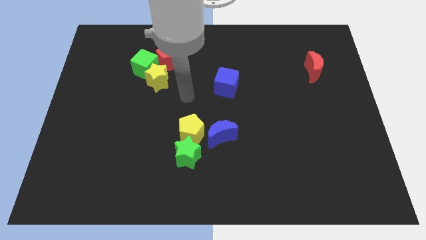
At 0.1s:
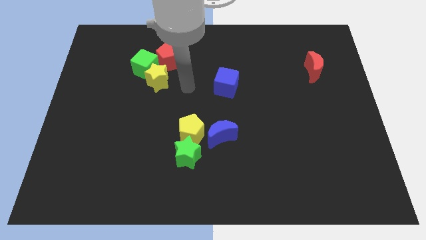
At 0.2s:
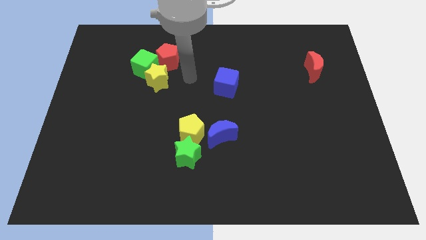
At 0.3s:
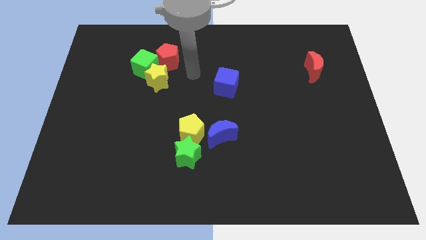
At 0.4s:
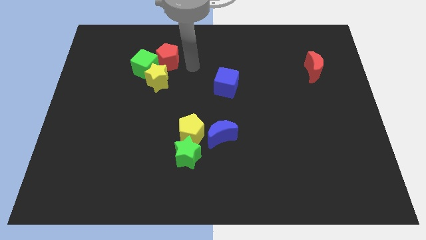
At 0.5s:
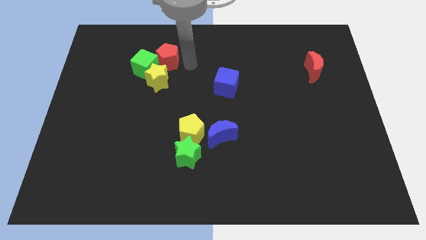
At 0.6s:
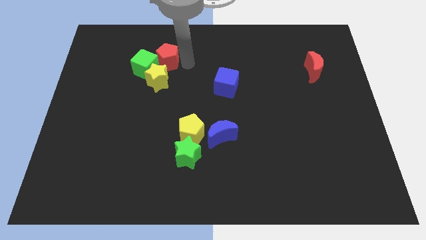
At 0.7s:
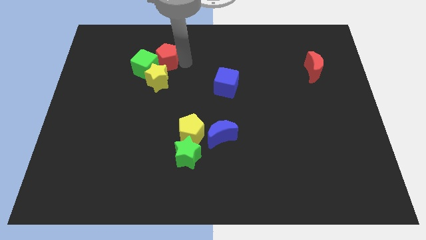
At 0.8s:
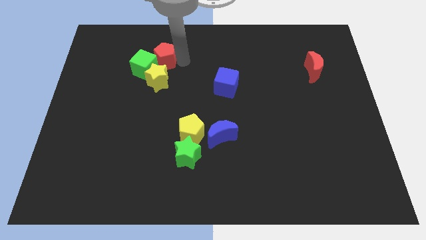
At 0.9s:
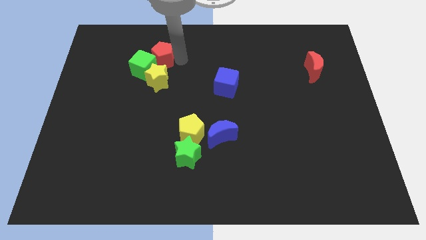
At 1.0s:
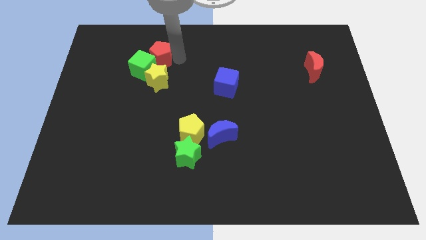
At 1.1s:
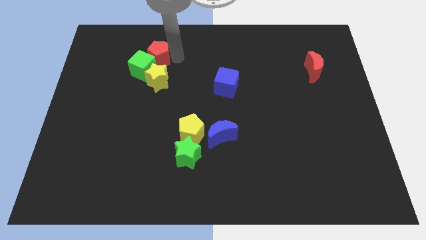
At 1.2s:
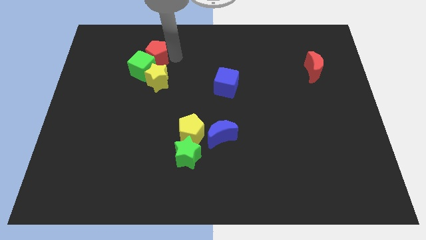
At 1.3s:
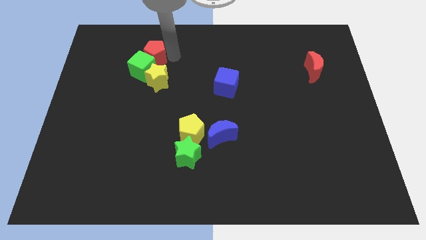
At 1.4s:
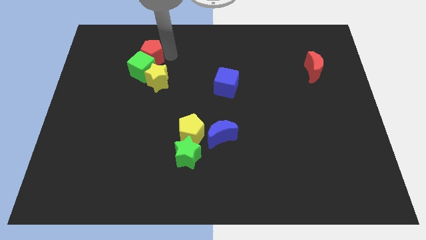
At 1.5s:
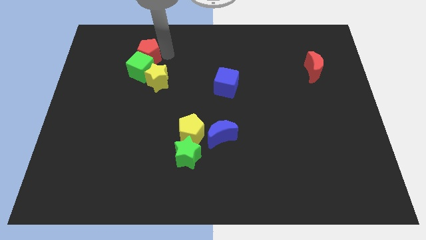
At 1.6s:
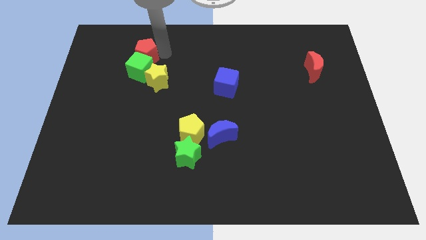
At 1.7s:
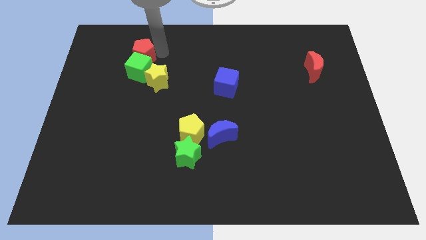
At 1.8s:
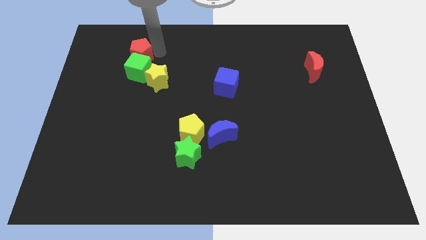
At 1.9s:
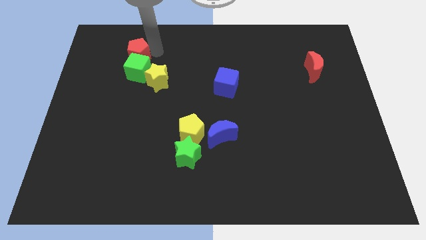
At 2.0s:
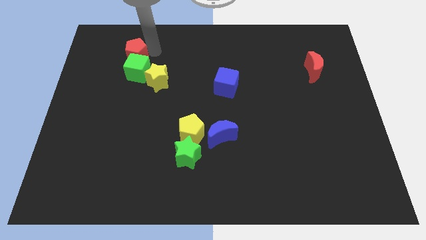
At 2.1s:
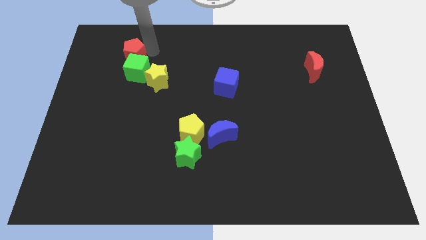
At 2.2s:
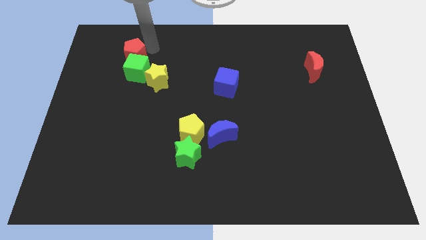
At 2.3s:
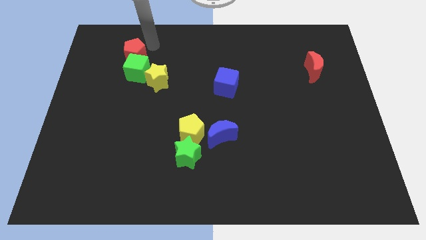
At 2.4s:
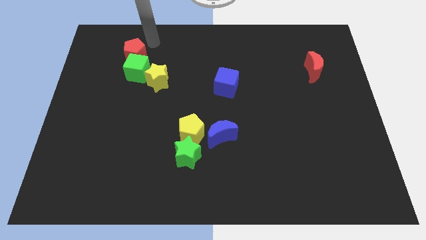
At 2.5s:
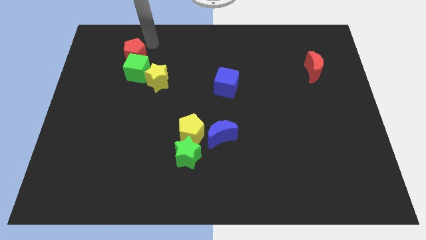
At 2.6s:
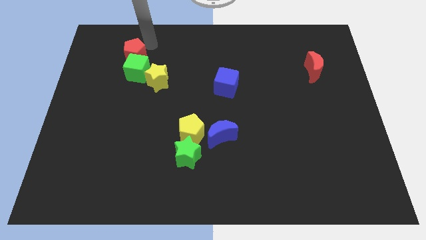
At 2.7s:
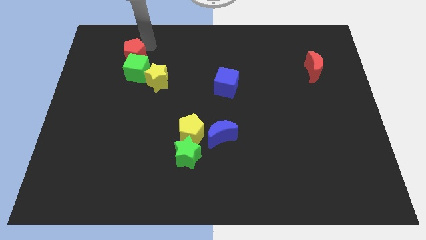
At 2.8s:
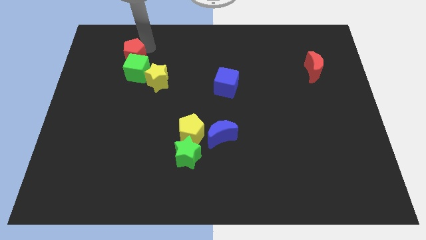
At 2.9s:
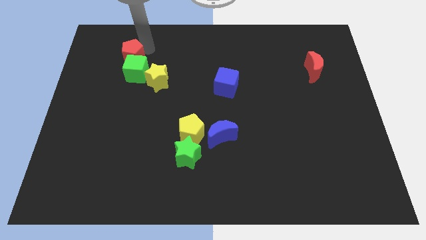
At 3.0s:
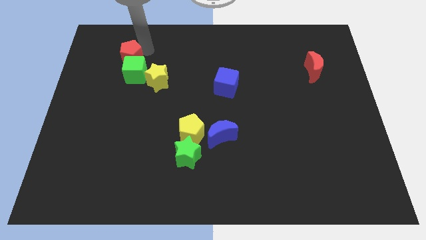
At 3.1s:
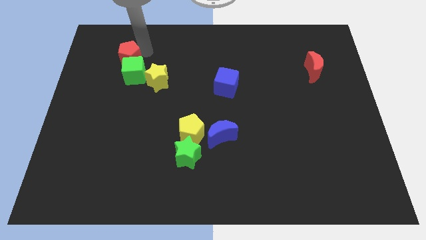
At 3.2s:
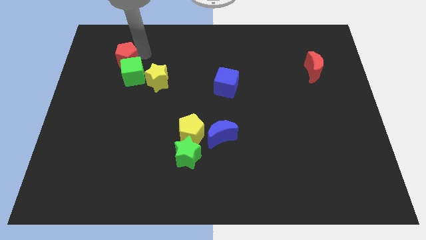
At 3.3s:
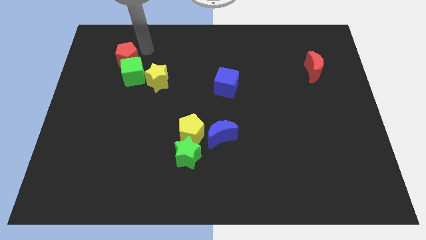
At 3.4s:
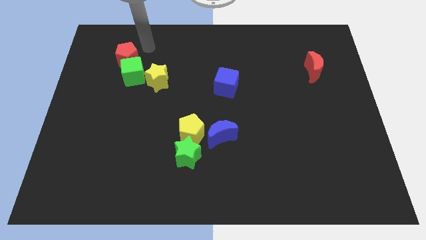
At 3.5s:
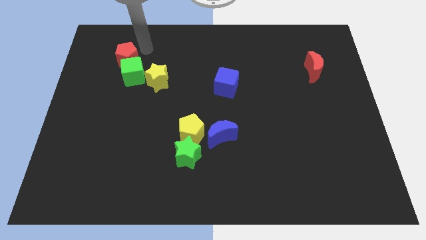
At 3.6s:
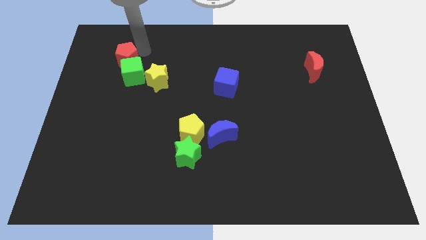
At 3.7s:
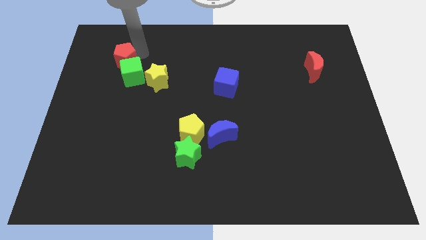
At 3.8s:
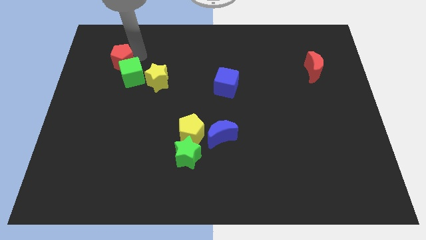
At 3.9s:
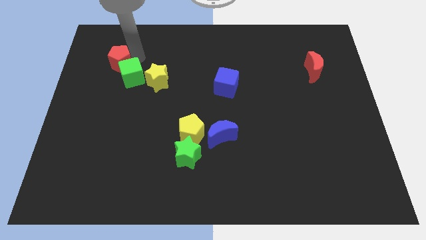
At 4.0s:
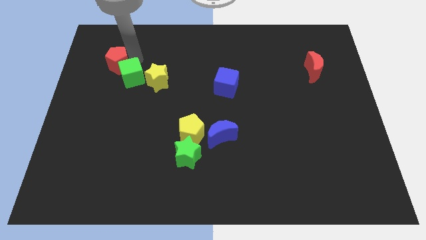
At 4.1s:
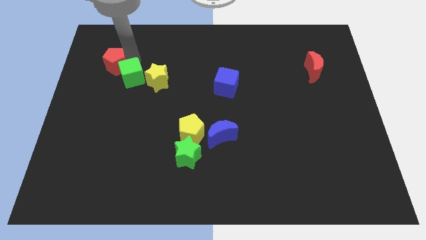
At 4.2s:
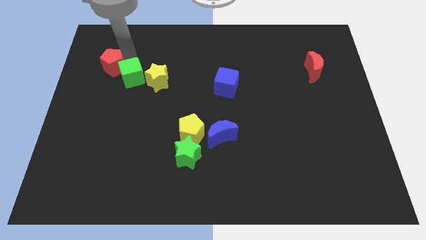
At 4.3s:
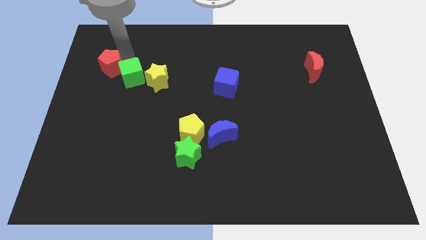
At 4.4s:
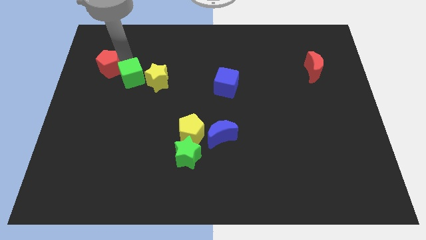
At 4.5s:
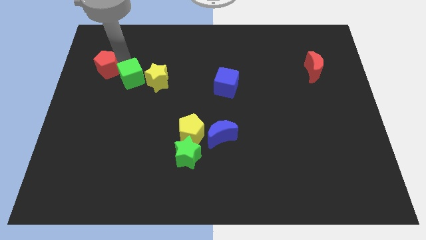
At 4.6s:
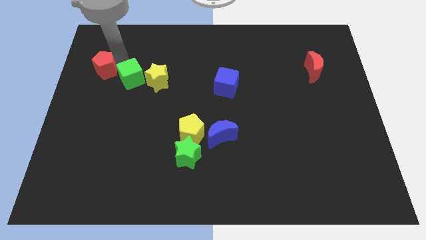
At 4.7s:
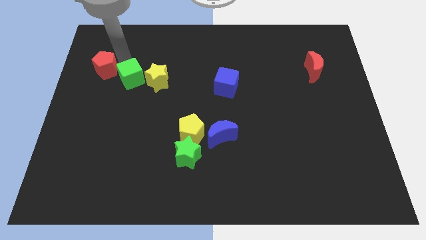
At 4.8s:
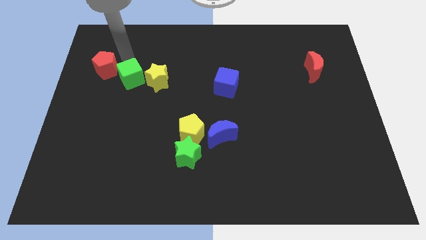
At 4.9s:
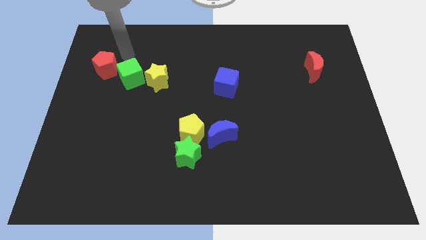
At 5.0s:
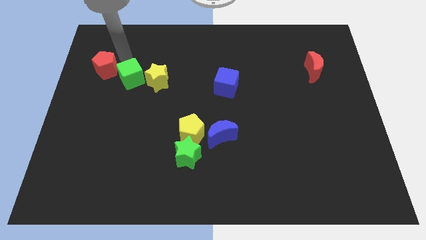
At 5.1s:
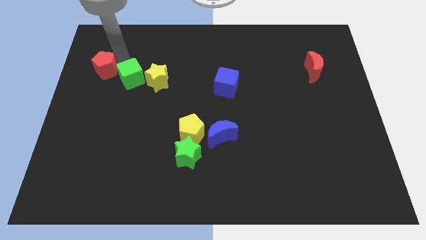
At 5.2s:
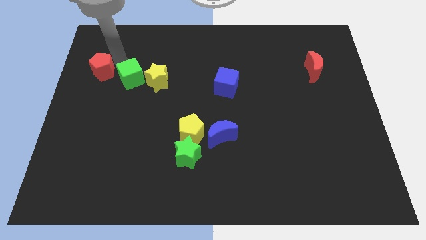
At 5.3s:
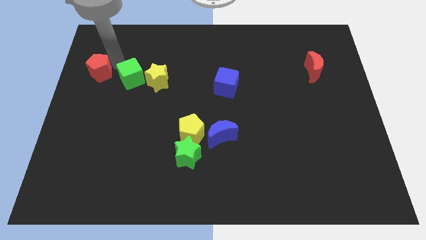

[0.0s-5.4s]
slide the red pentagon to the left side
